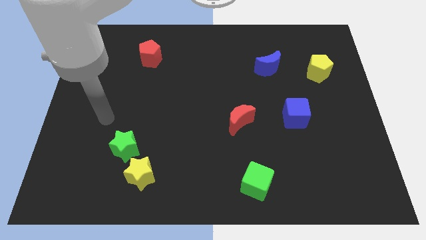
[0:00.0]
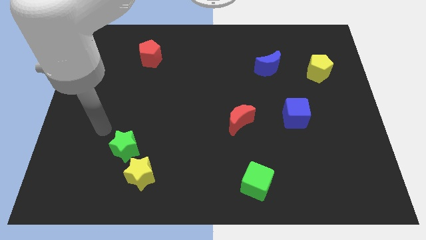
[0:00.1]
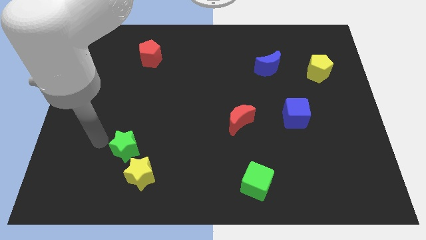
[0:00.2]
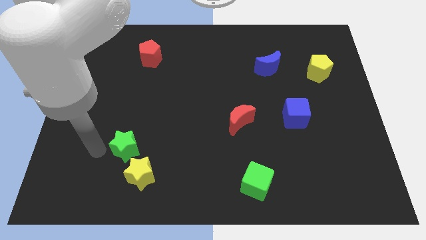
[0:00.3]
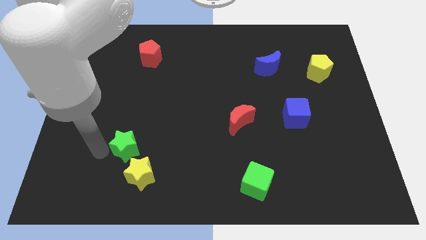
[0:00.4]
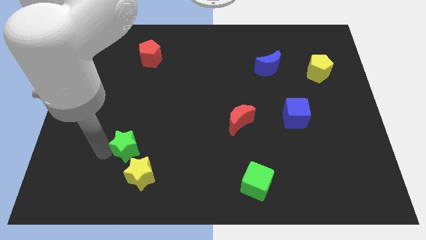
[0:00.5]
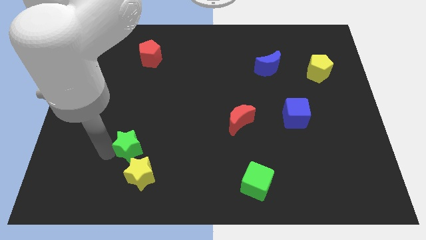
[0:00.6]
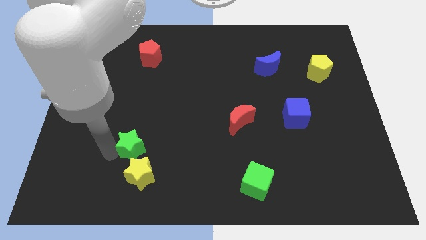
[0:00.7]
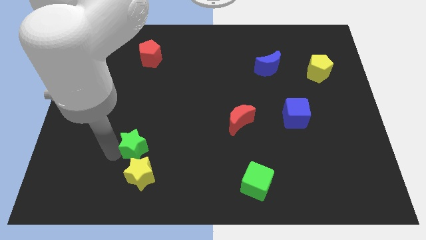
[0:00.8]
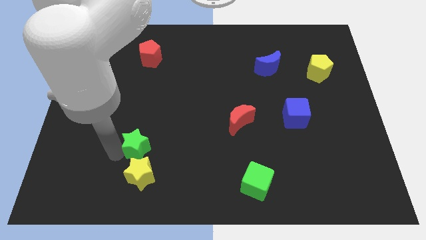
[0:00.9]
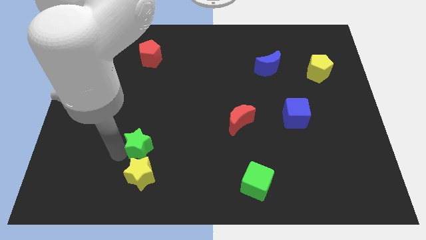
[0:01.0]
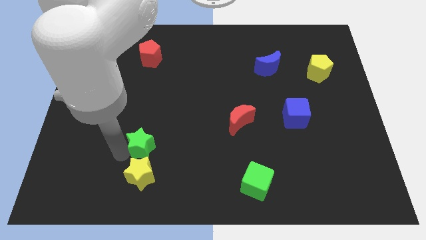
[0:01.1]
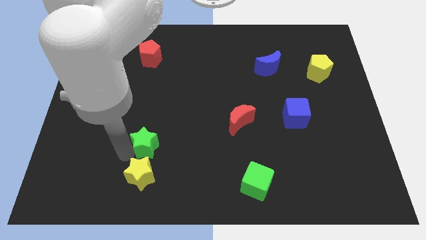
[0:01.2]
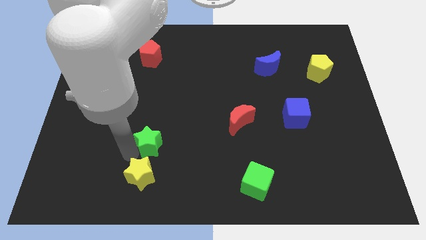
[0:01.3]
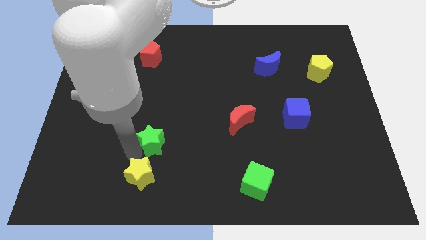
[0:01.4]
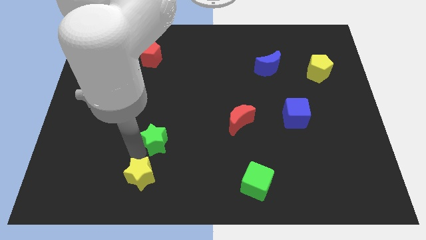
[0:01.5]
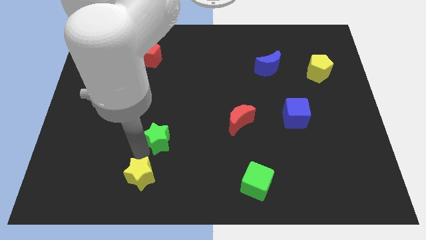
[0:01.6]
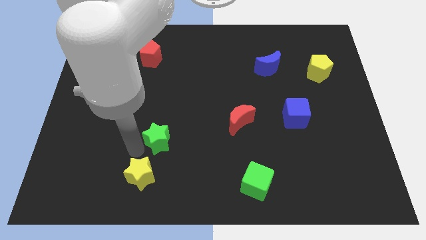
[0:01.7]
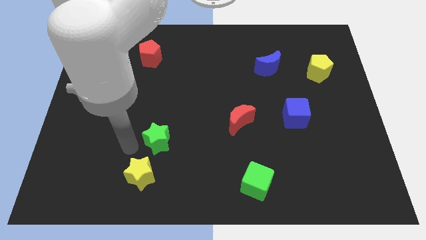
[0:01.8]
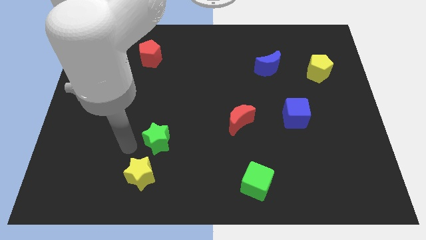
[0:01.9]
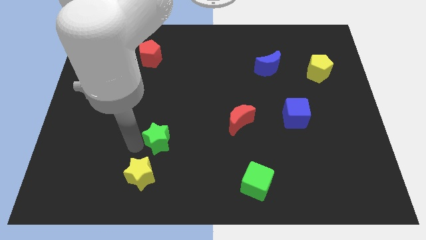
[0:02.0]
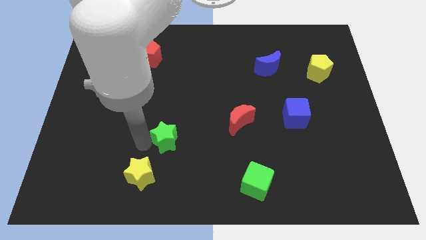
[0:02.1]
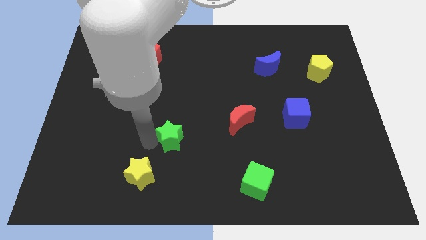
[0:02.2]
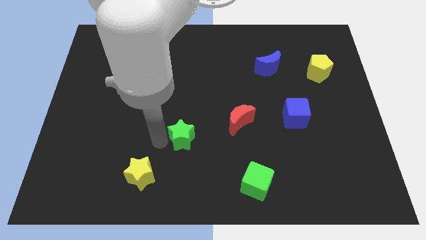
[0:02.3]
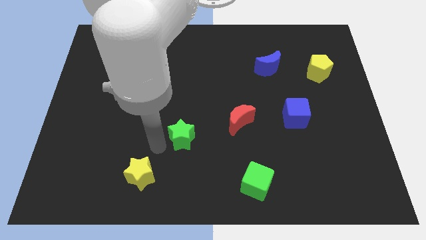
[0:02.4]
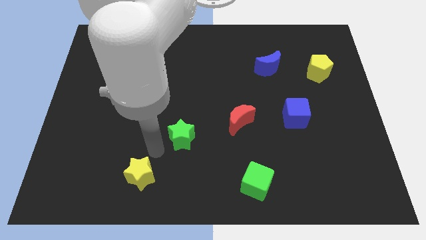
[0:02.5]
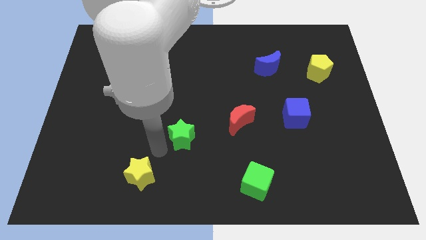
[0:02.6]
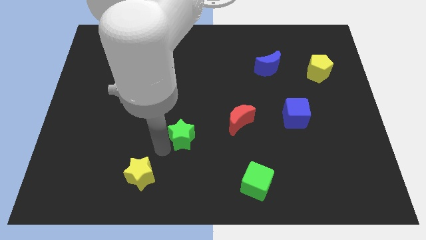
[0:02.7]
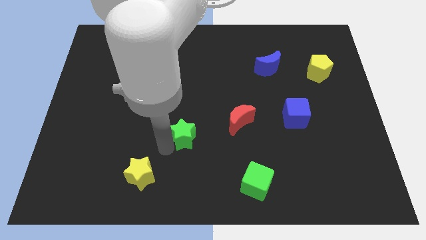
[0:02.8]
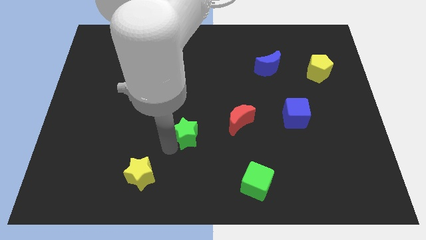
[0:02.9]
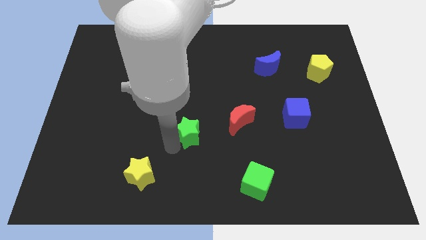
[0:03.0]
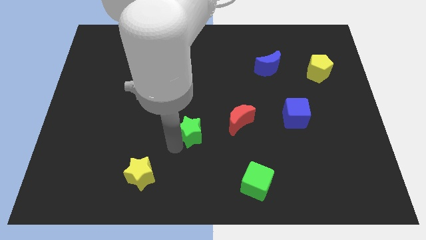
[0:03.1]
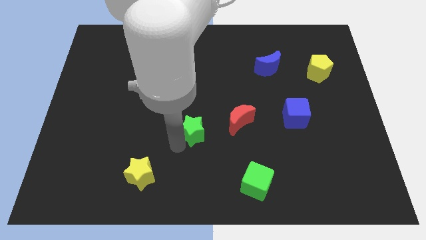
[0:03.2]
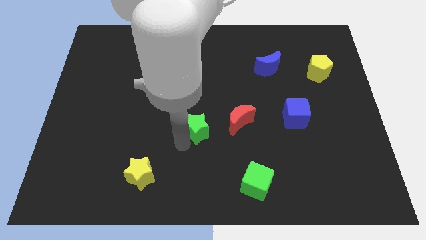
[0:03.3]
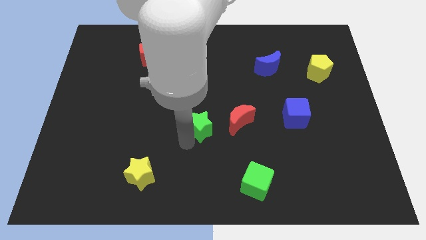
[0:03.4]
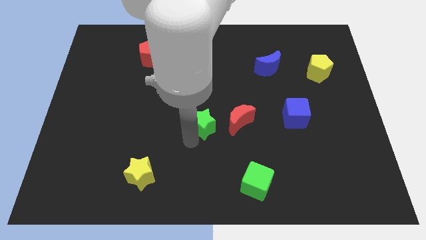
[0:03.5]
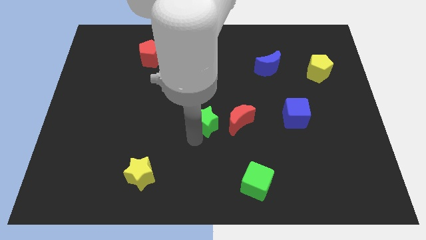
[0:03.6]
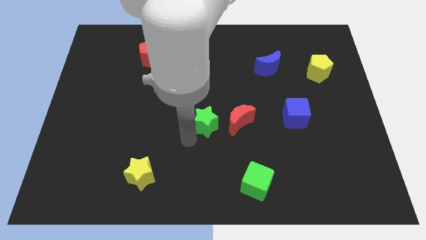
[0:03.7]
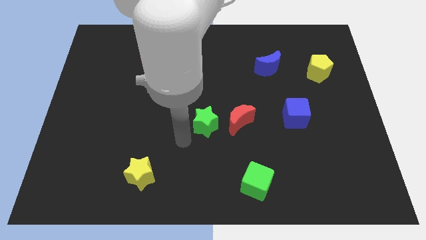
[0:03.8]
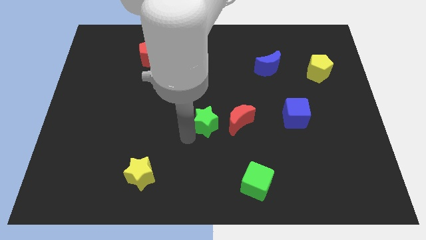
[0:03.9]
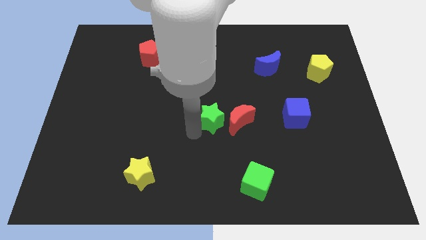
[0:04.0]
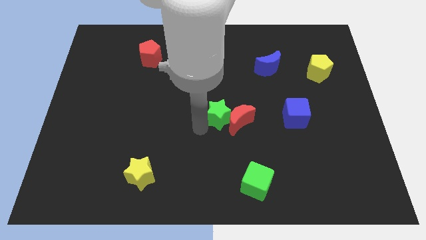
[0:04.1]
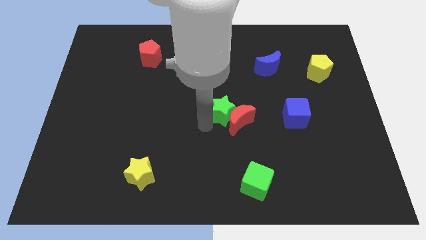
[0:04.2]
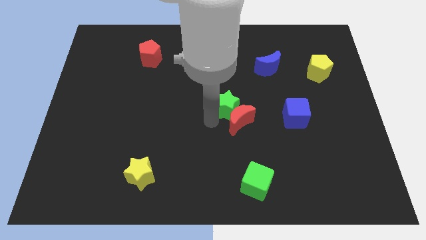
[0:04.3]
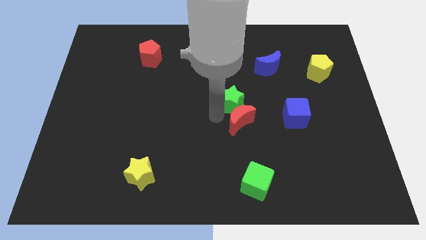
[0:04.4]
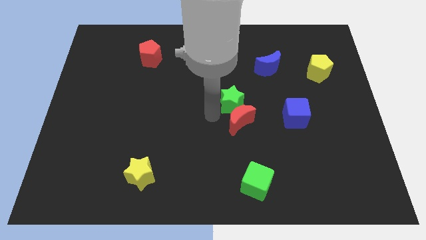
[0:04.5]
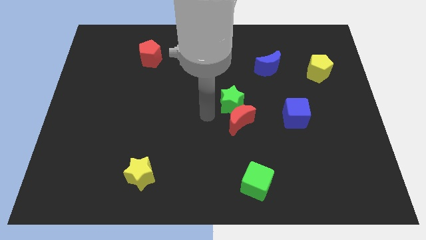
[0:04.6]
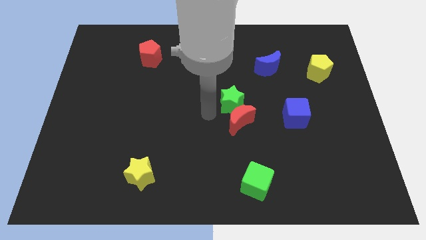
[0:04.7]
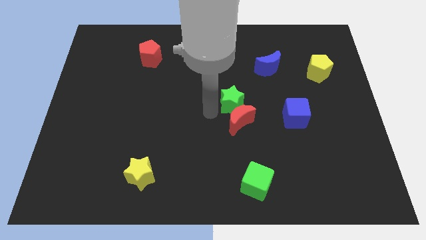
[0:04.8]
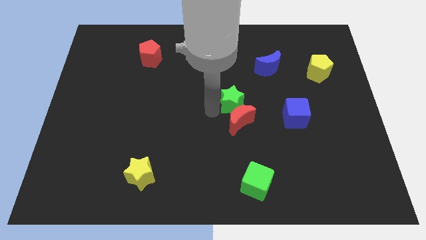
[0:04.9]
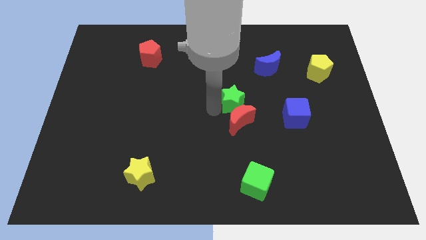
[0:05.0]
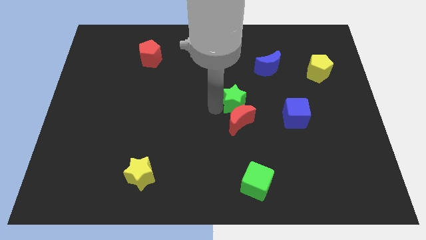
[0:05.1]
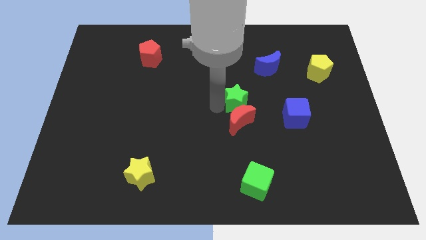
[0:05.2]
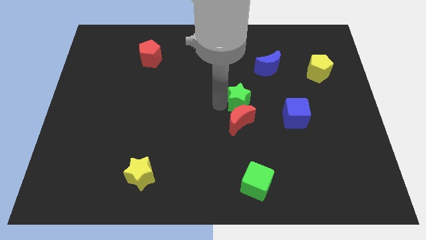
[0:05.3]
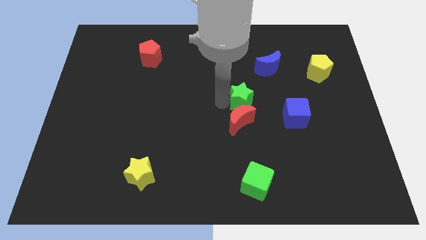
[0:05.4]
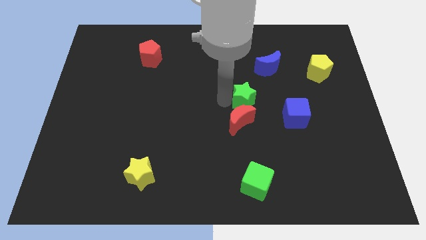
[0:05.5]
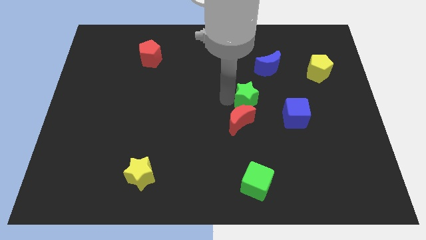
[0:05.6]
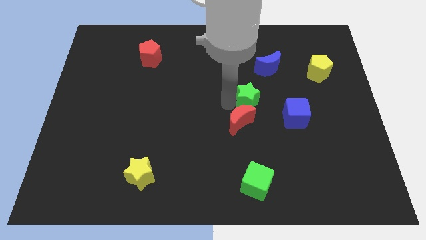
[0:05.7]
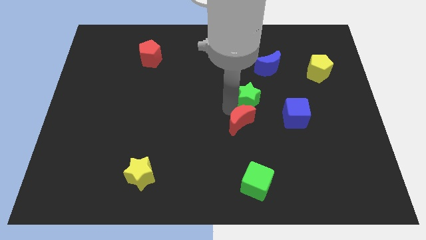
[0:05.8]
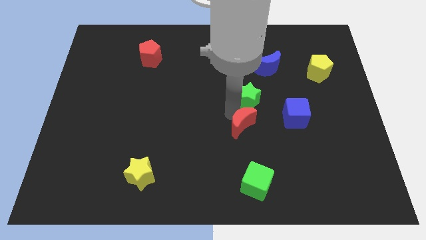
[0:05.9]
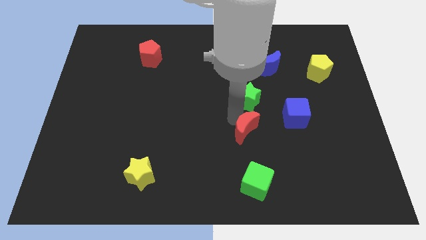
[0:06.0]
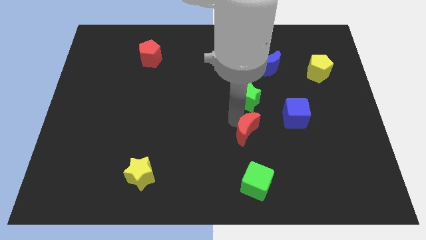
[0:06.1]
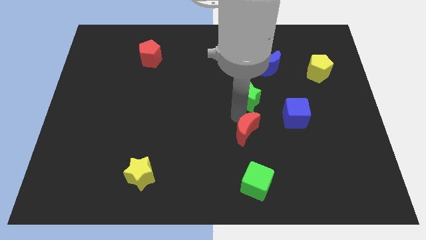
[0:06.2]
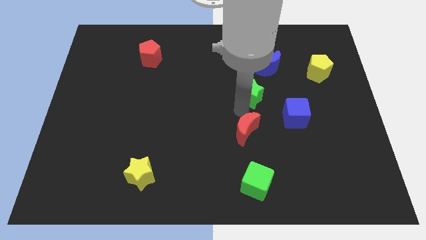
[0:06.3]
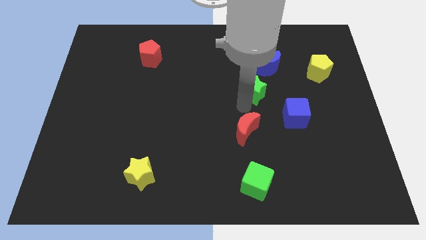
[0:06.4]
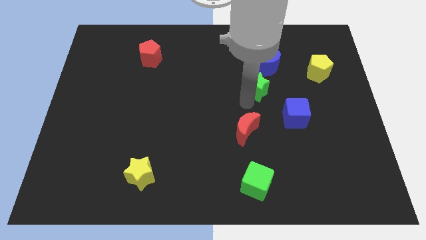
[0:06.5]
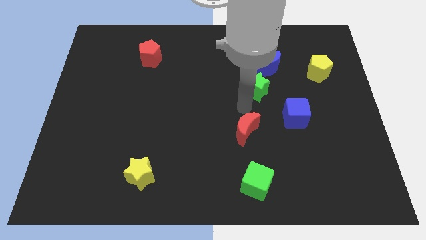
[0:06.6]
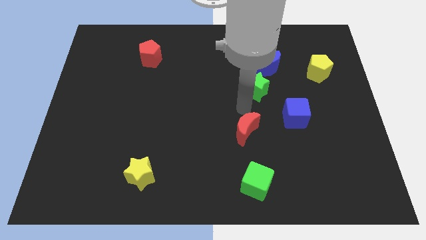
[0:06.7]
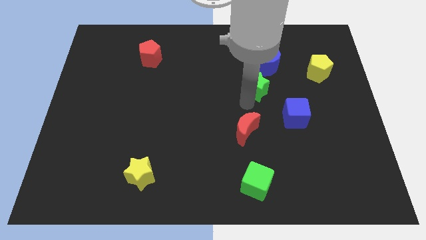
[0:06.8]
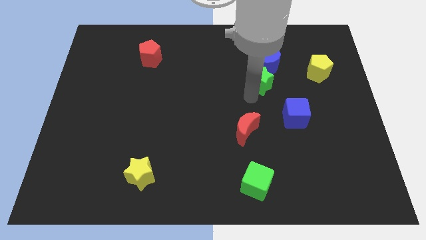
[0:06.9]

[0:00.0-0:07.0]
push the green star to the blue moon

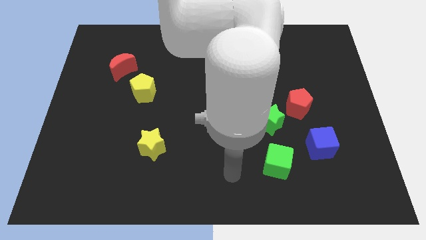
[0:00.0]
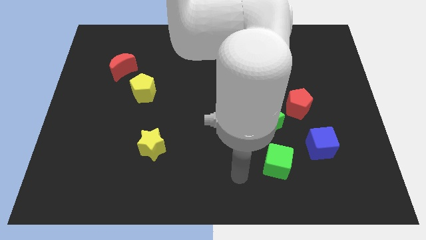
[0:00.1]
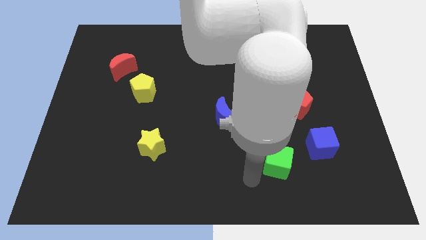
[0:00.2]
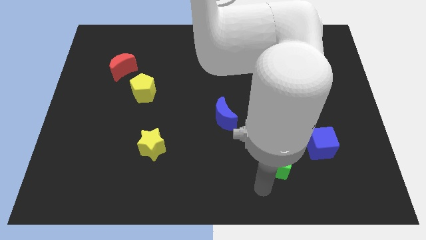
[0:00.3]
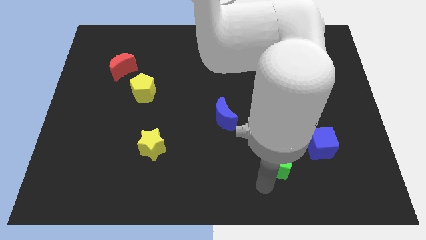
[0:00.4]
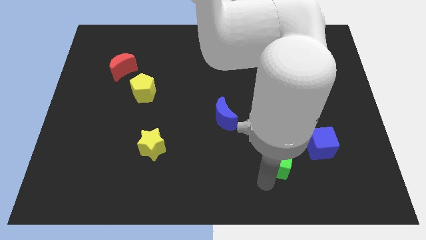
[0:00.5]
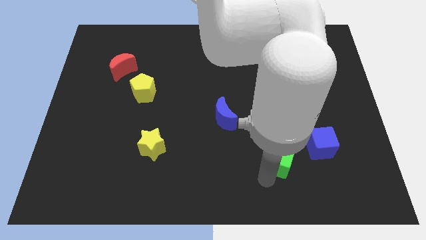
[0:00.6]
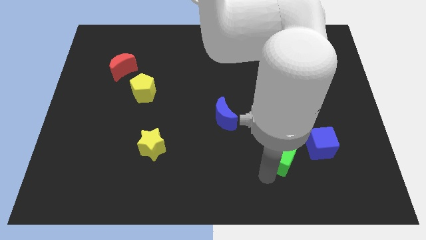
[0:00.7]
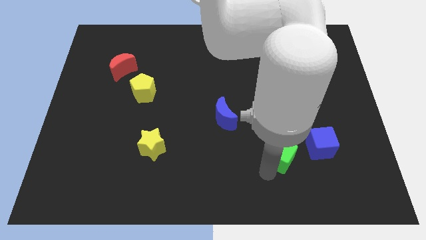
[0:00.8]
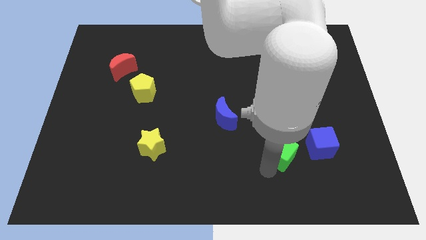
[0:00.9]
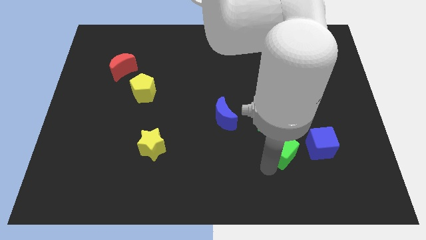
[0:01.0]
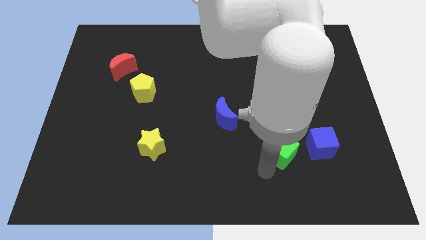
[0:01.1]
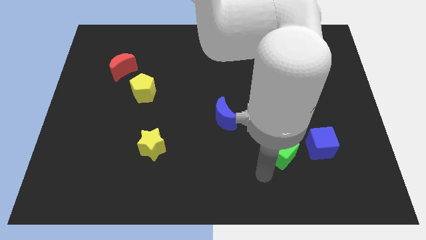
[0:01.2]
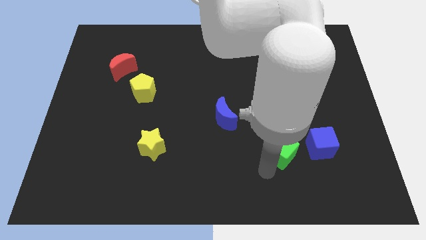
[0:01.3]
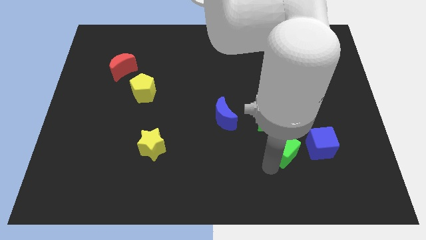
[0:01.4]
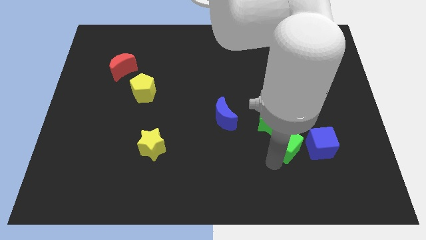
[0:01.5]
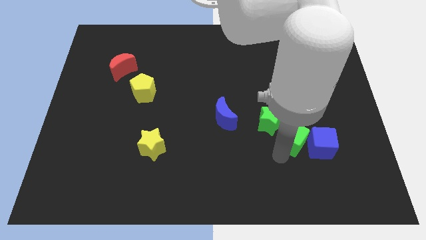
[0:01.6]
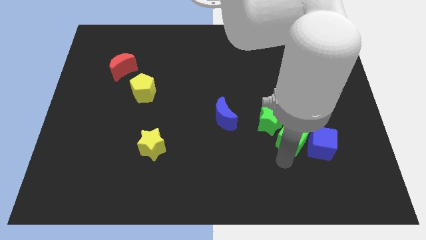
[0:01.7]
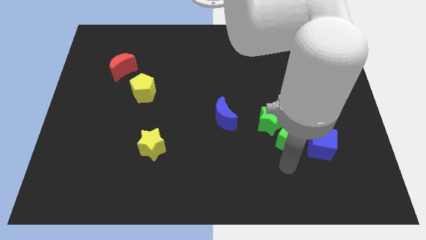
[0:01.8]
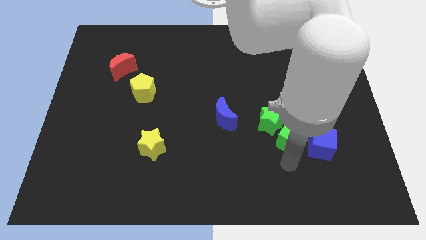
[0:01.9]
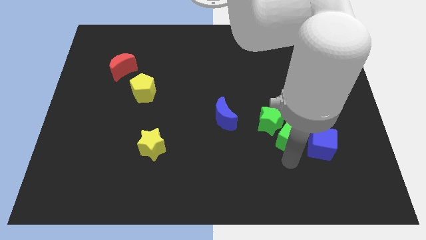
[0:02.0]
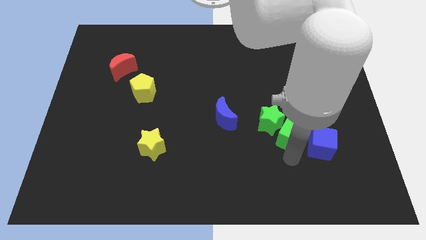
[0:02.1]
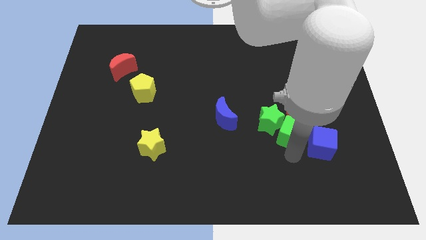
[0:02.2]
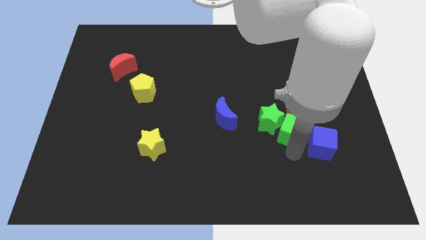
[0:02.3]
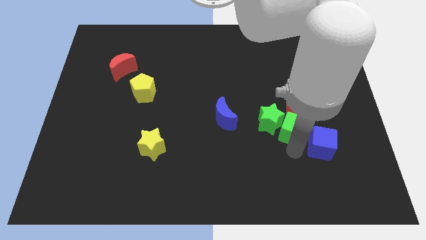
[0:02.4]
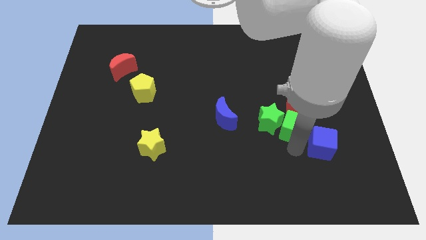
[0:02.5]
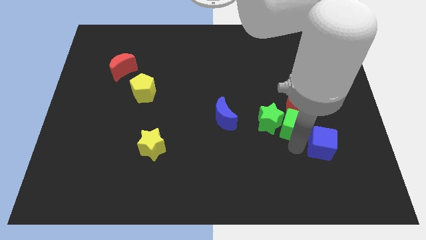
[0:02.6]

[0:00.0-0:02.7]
push the green cube towards the red pentagon
